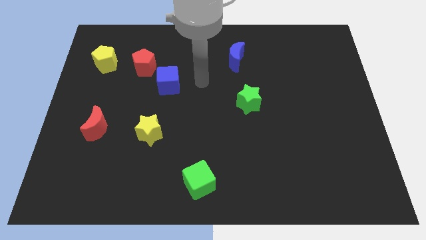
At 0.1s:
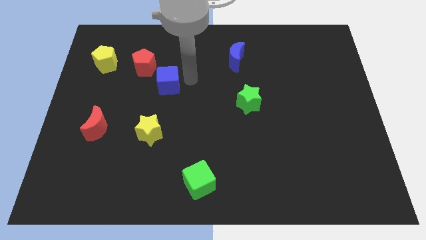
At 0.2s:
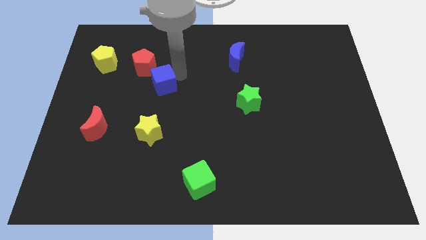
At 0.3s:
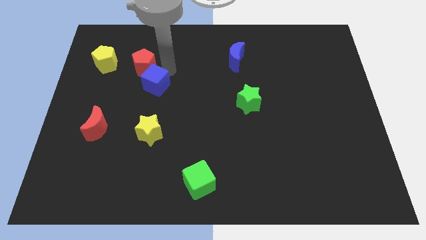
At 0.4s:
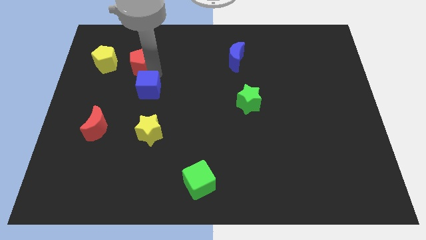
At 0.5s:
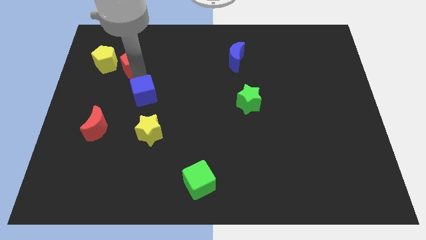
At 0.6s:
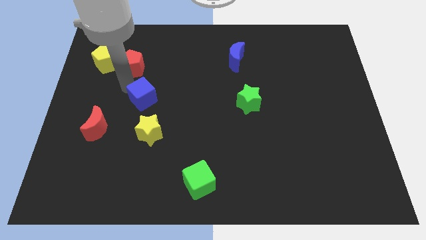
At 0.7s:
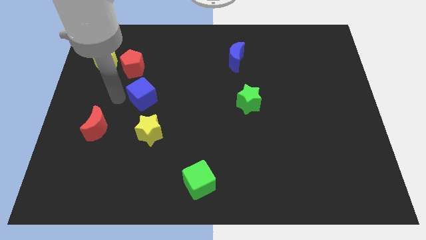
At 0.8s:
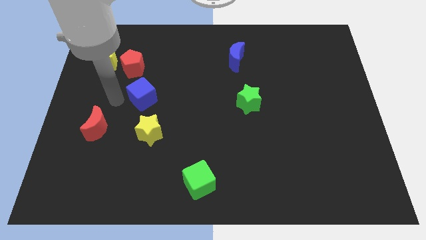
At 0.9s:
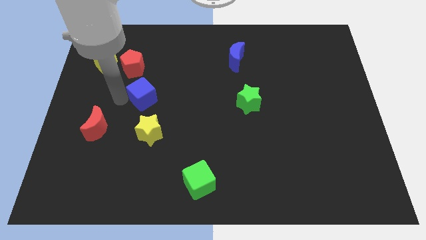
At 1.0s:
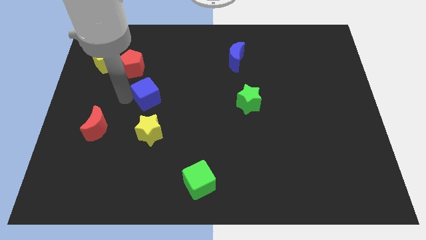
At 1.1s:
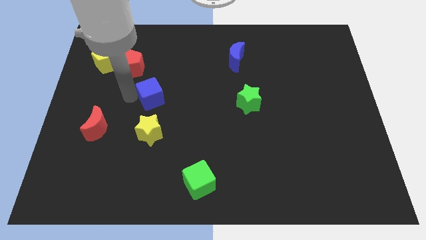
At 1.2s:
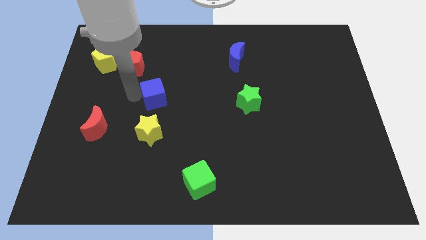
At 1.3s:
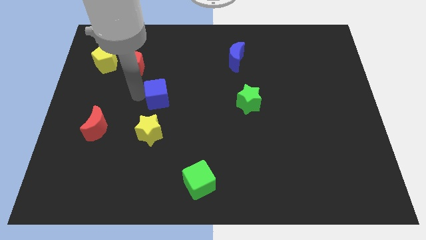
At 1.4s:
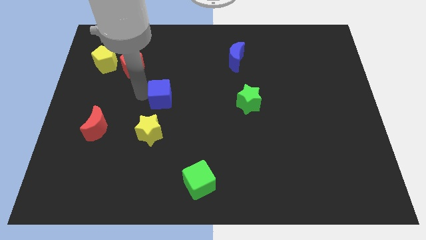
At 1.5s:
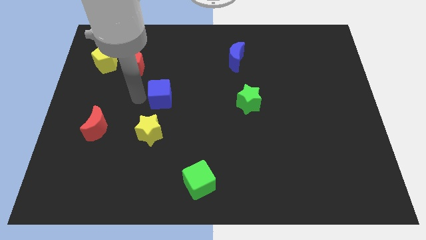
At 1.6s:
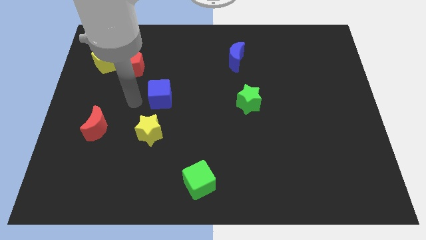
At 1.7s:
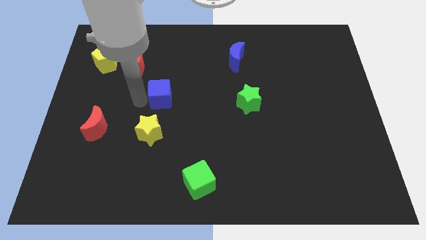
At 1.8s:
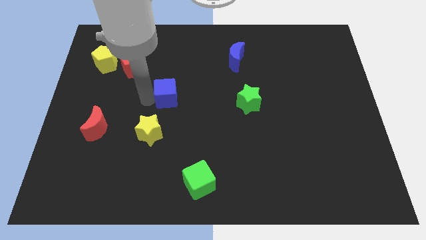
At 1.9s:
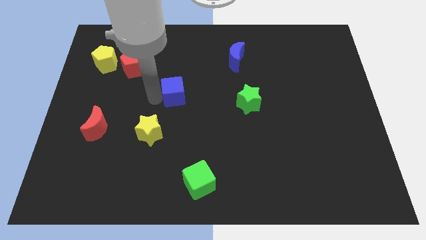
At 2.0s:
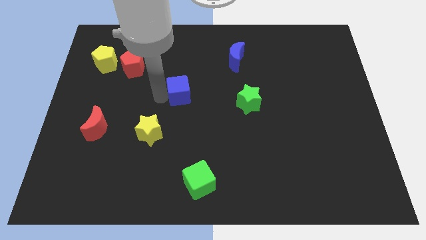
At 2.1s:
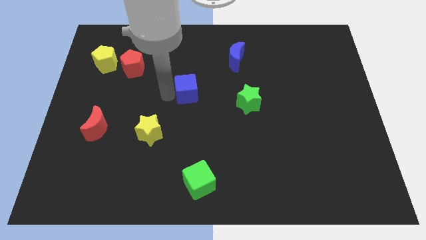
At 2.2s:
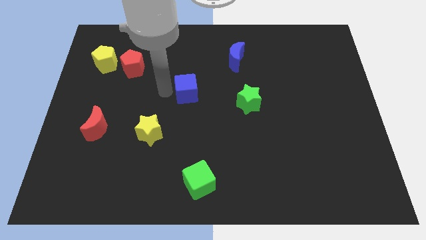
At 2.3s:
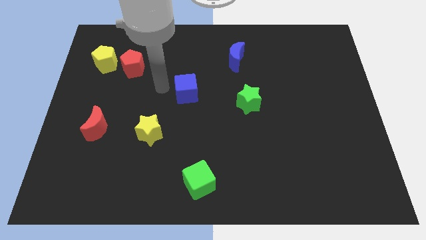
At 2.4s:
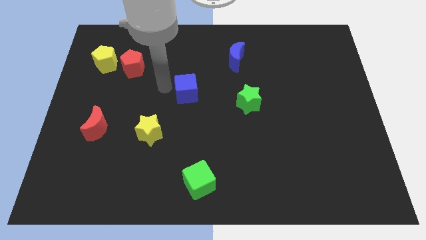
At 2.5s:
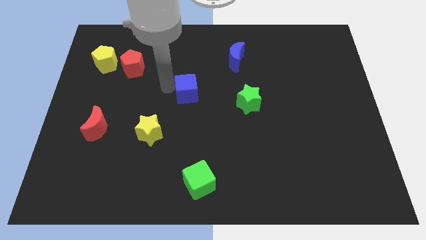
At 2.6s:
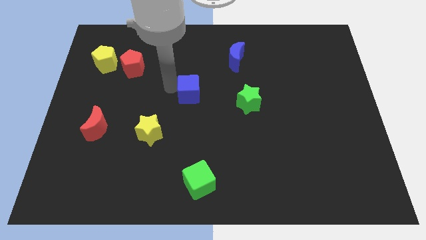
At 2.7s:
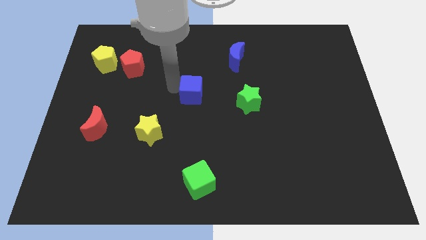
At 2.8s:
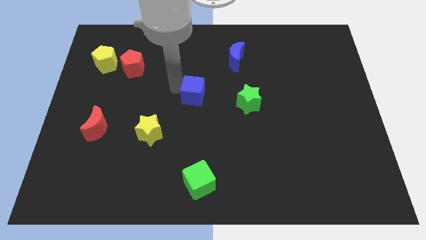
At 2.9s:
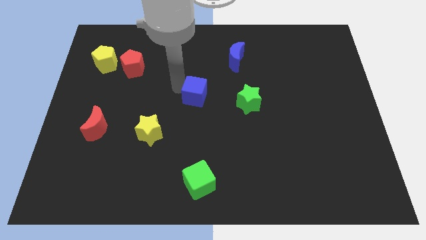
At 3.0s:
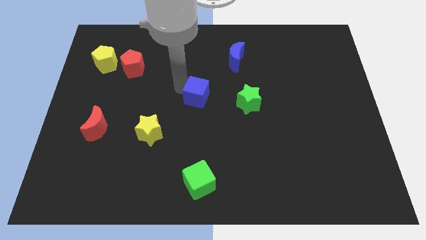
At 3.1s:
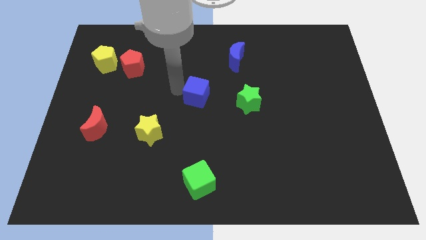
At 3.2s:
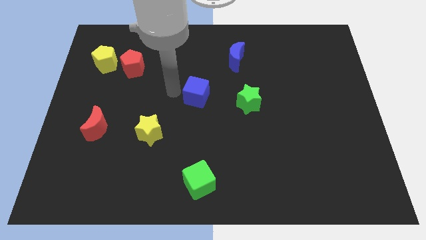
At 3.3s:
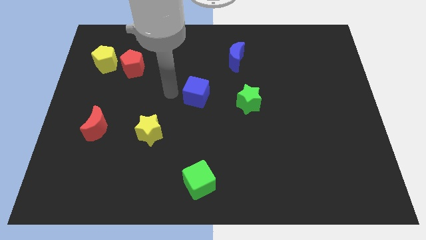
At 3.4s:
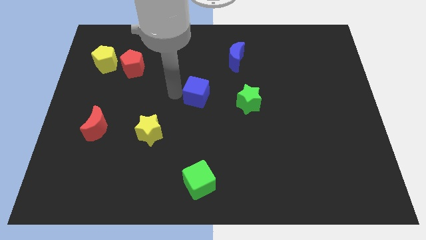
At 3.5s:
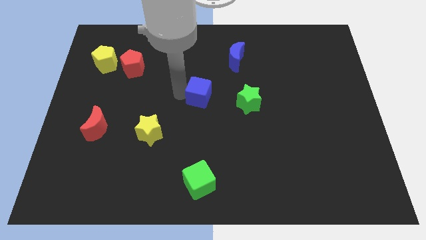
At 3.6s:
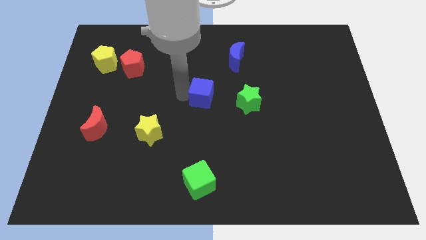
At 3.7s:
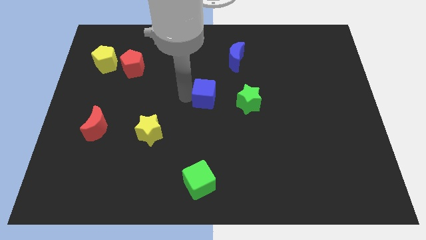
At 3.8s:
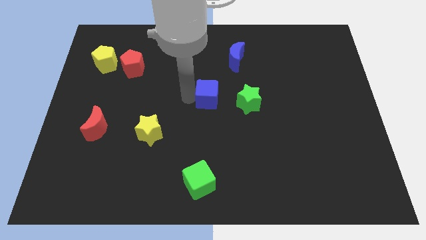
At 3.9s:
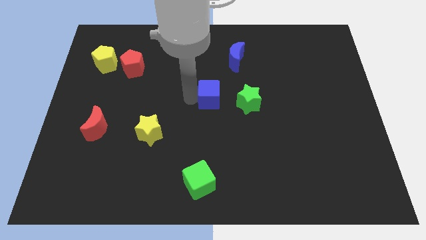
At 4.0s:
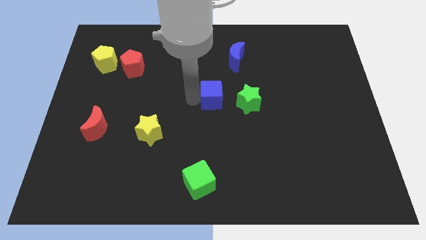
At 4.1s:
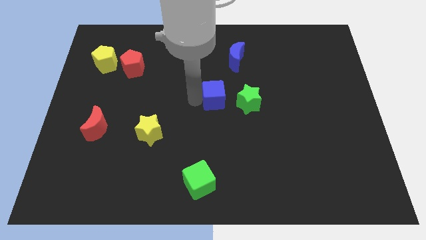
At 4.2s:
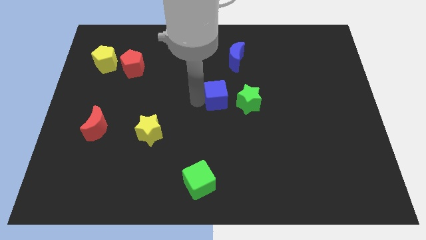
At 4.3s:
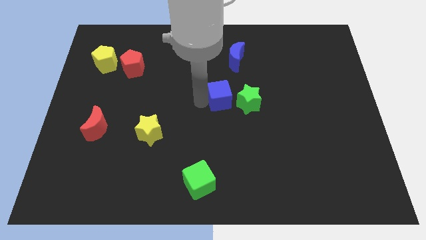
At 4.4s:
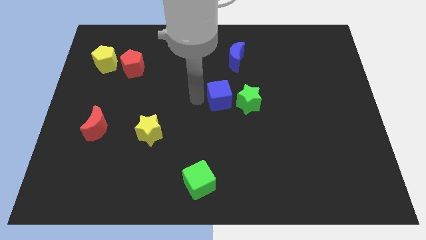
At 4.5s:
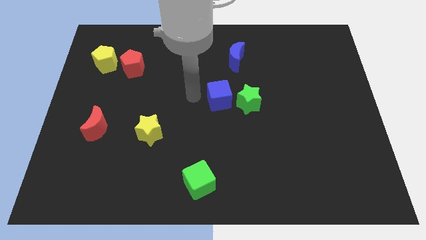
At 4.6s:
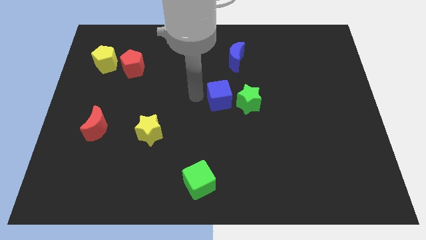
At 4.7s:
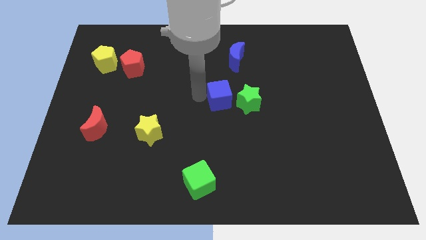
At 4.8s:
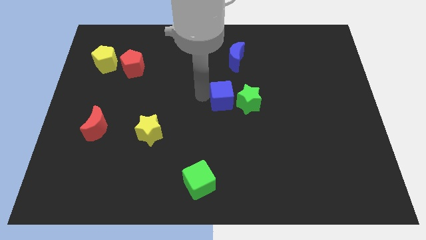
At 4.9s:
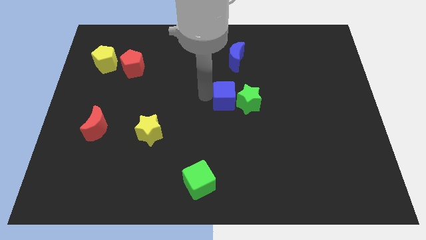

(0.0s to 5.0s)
move the blue cube next to the green star

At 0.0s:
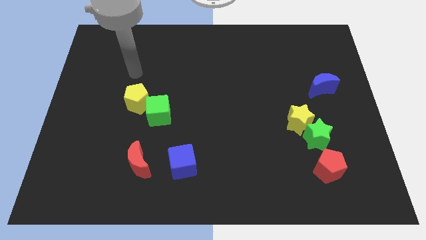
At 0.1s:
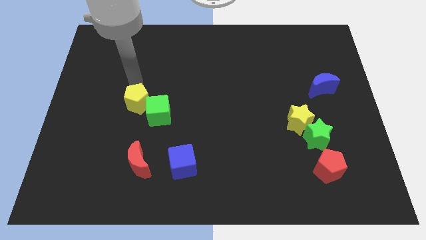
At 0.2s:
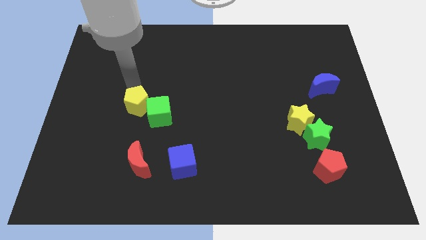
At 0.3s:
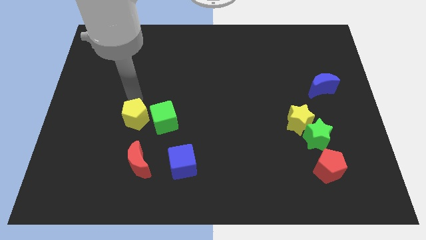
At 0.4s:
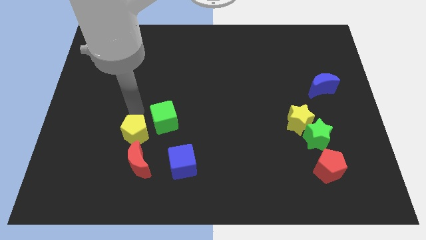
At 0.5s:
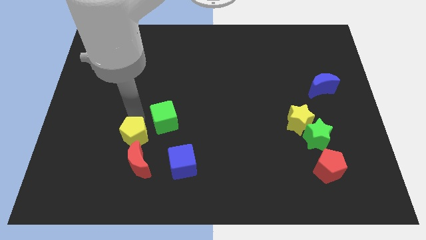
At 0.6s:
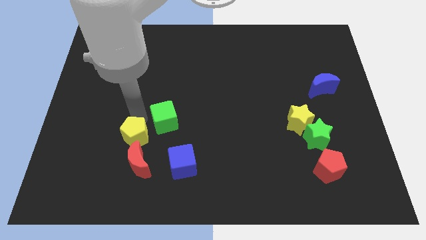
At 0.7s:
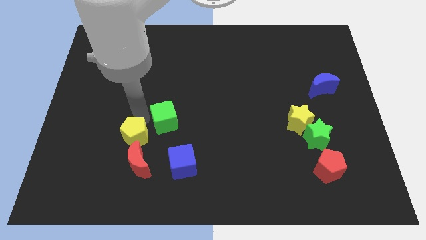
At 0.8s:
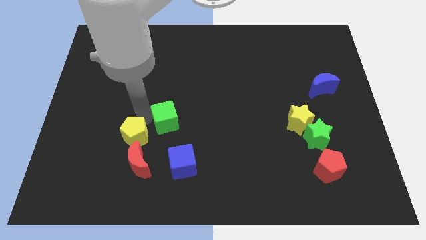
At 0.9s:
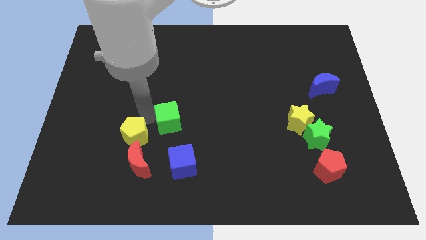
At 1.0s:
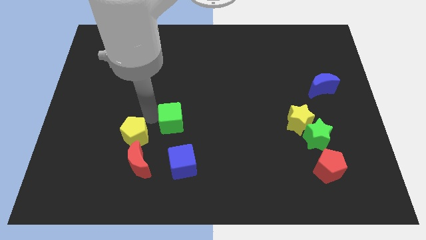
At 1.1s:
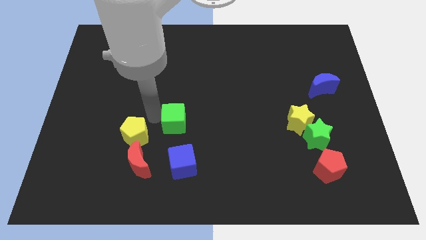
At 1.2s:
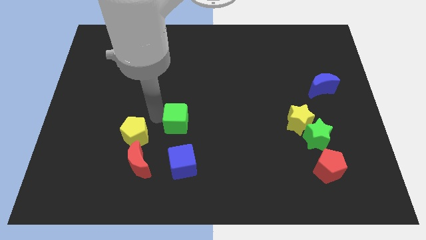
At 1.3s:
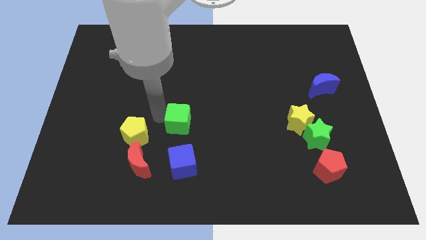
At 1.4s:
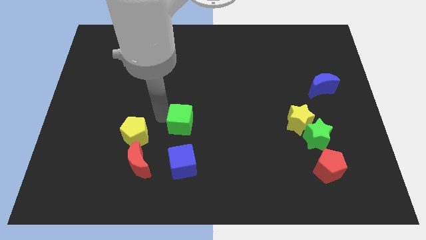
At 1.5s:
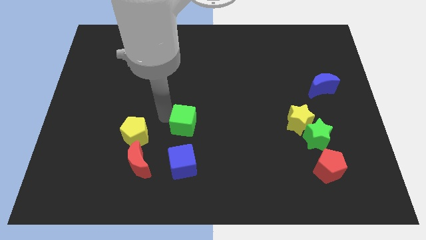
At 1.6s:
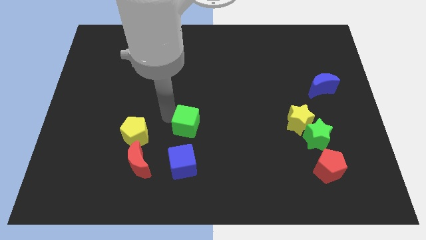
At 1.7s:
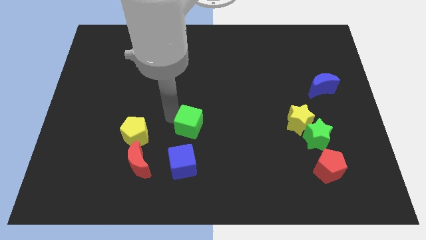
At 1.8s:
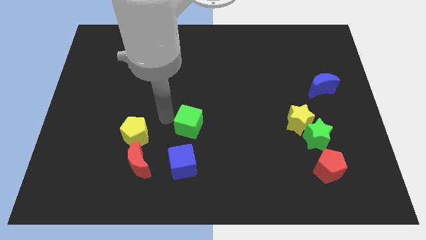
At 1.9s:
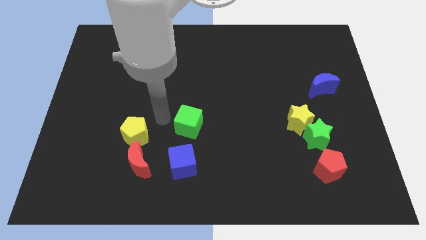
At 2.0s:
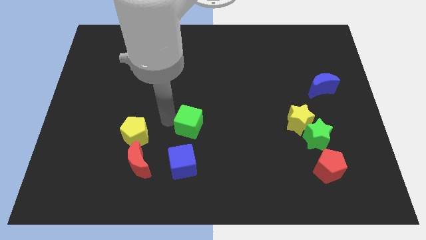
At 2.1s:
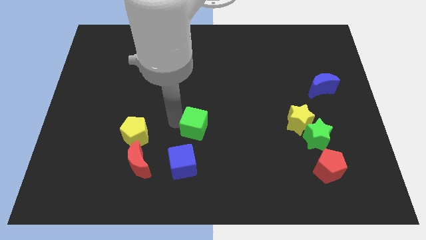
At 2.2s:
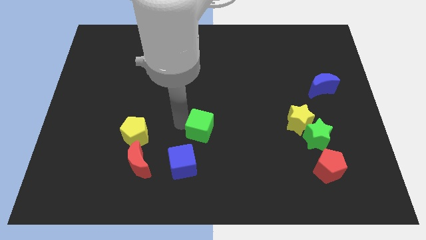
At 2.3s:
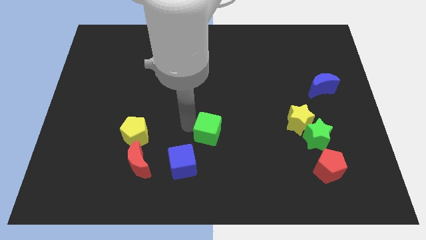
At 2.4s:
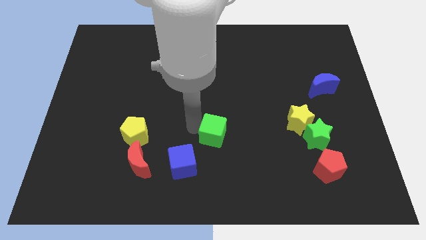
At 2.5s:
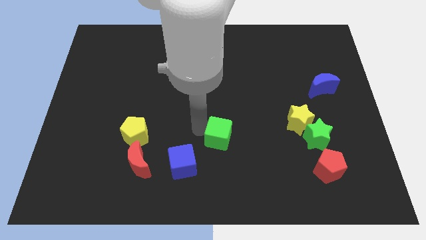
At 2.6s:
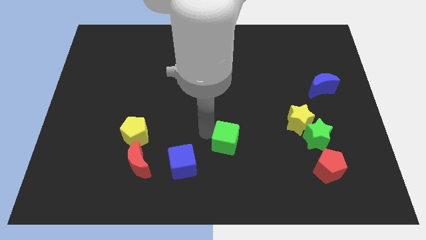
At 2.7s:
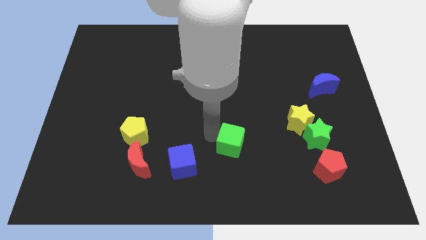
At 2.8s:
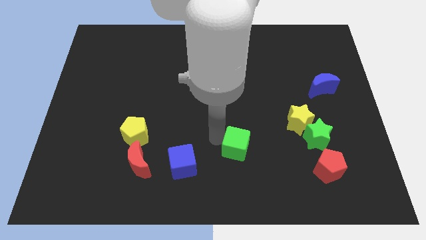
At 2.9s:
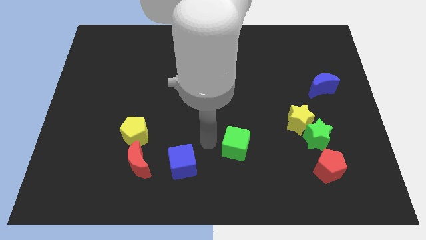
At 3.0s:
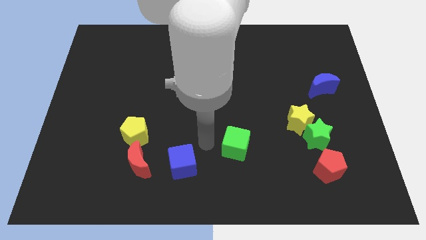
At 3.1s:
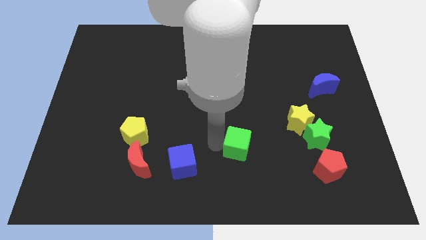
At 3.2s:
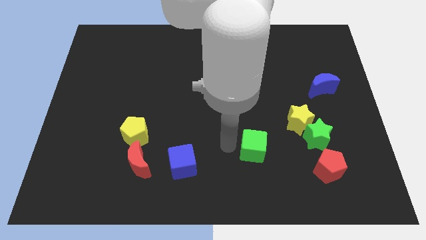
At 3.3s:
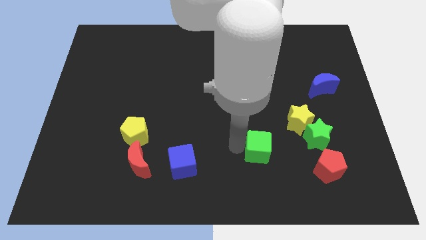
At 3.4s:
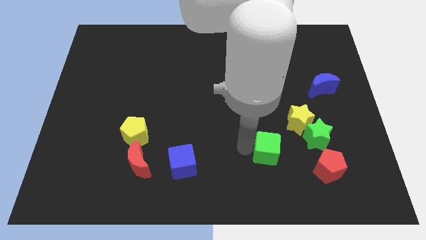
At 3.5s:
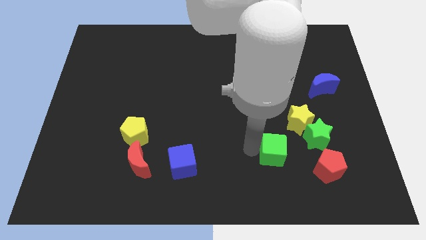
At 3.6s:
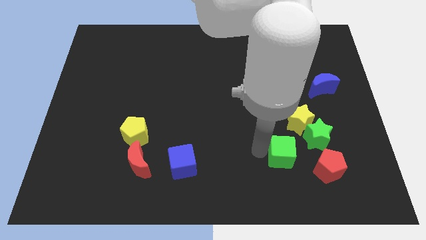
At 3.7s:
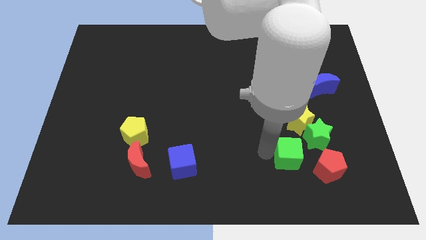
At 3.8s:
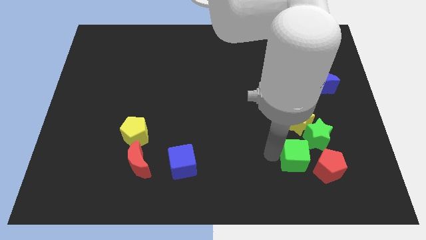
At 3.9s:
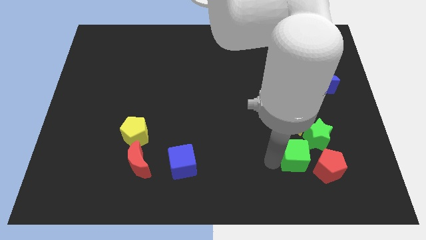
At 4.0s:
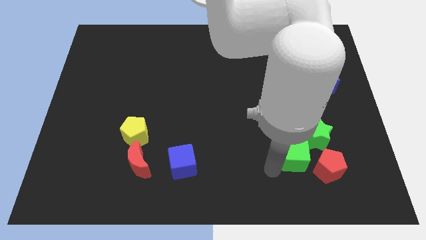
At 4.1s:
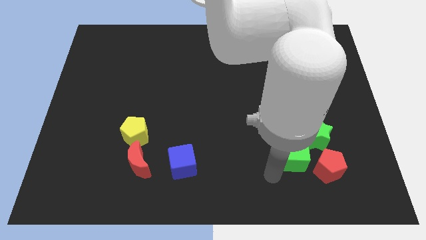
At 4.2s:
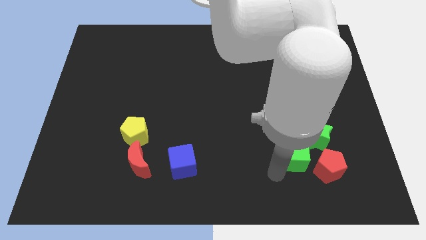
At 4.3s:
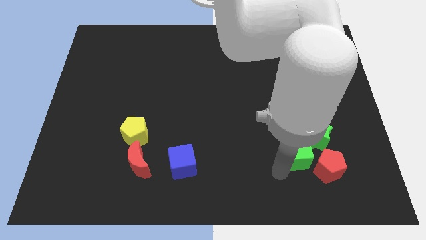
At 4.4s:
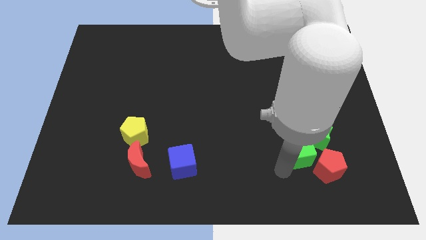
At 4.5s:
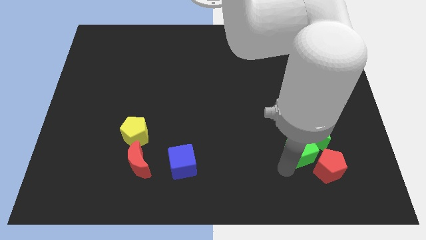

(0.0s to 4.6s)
move the green cube close to the green star
